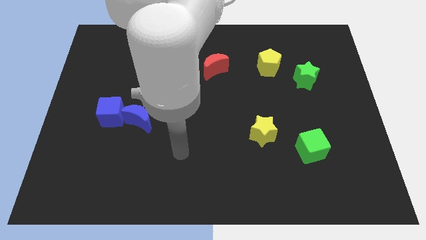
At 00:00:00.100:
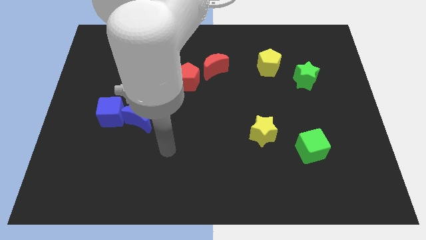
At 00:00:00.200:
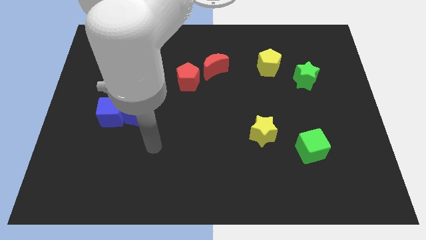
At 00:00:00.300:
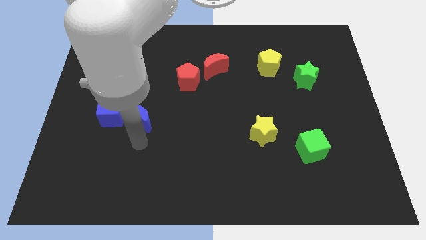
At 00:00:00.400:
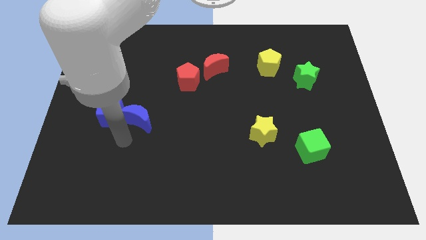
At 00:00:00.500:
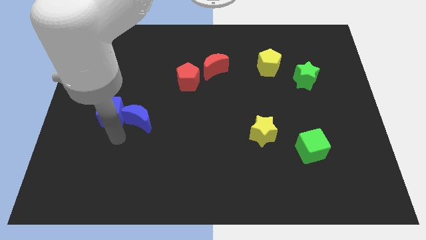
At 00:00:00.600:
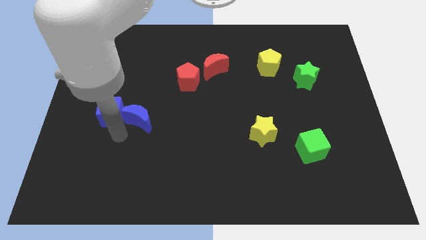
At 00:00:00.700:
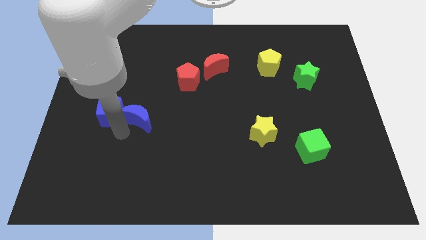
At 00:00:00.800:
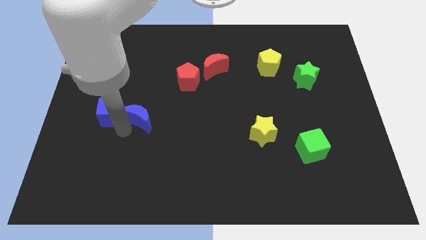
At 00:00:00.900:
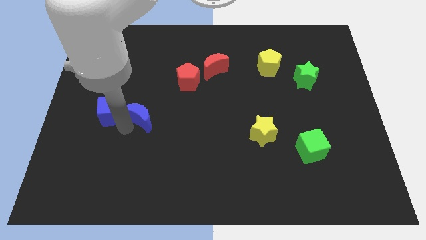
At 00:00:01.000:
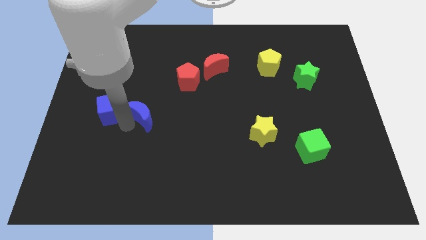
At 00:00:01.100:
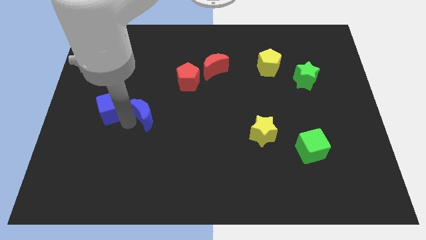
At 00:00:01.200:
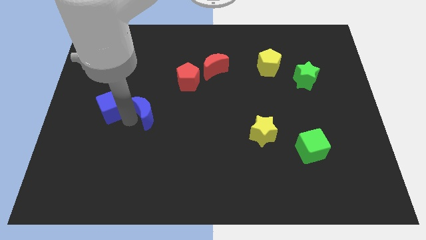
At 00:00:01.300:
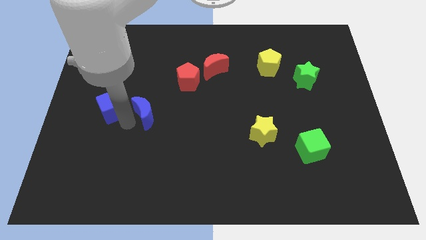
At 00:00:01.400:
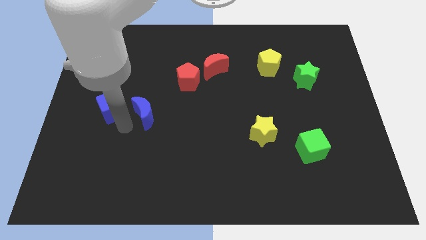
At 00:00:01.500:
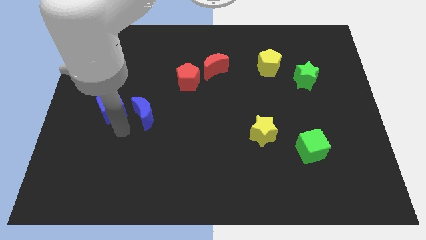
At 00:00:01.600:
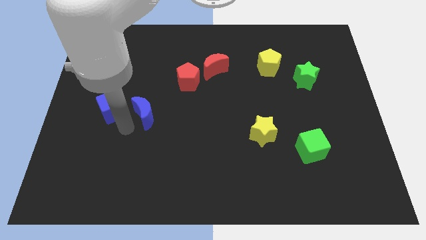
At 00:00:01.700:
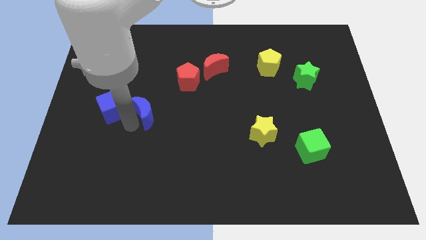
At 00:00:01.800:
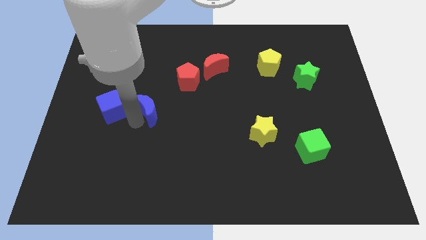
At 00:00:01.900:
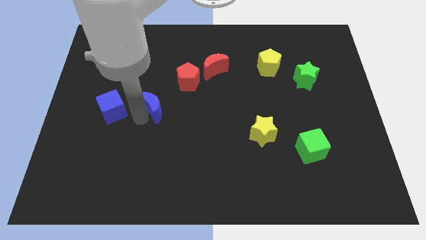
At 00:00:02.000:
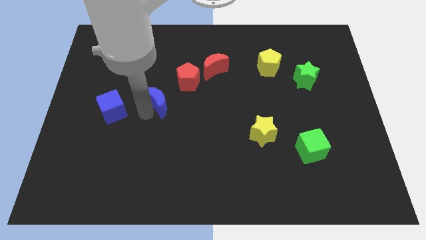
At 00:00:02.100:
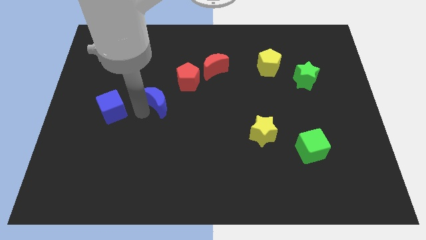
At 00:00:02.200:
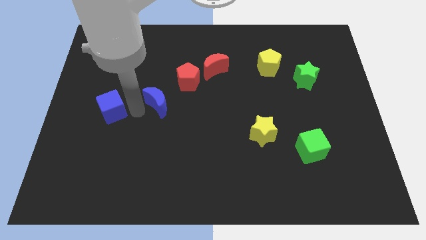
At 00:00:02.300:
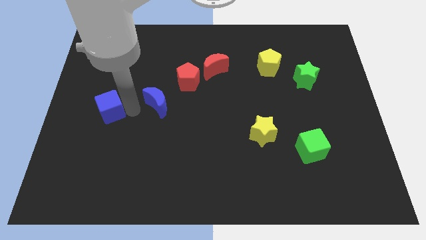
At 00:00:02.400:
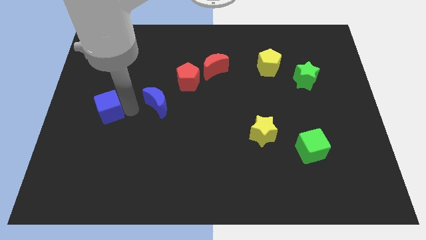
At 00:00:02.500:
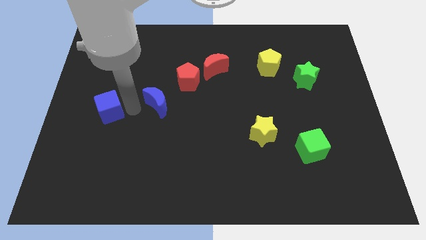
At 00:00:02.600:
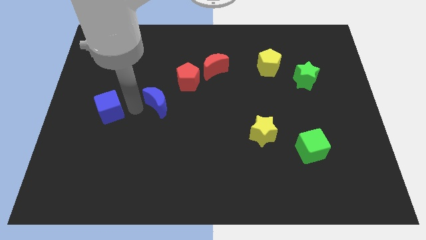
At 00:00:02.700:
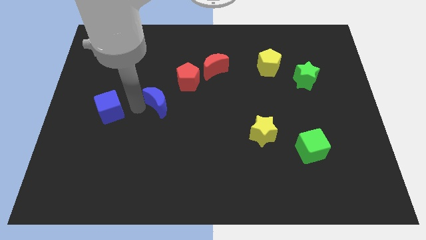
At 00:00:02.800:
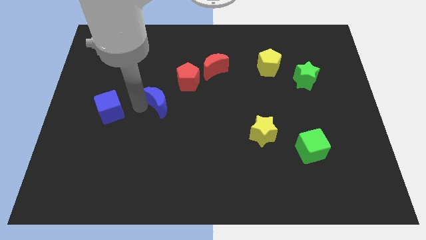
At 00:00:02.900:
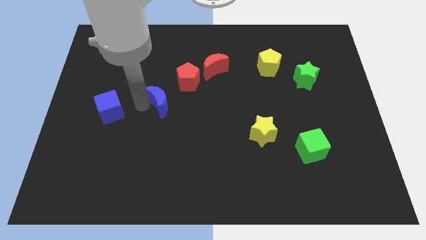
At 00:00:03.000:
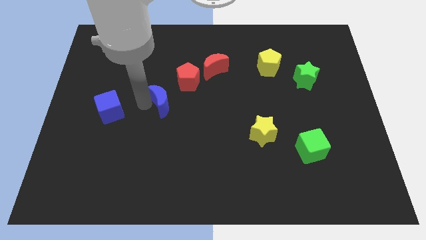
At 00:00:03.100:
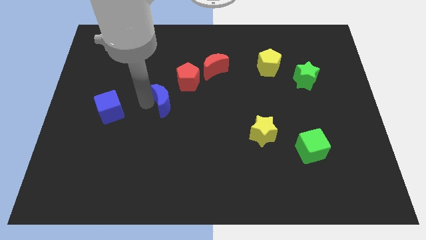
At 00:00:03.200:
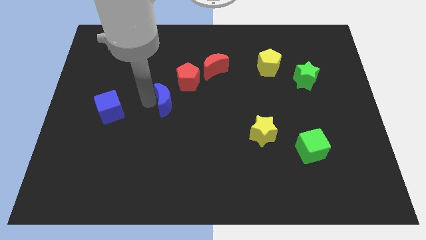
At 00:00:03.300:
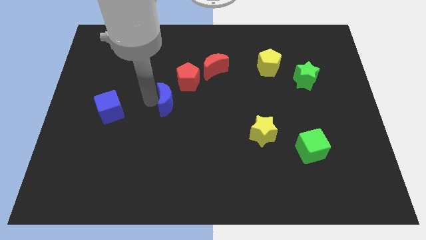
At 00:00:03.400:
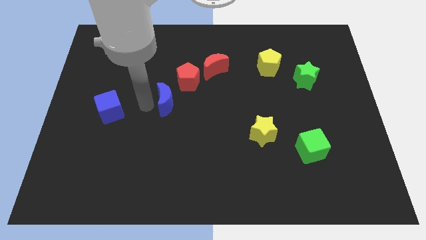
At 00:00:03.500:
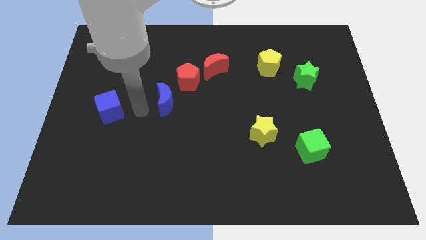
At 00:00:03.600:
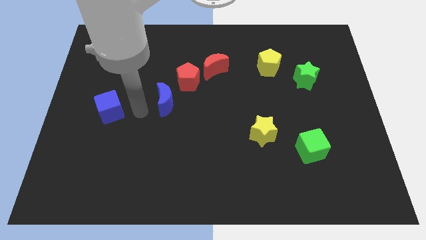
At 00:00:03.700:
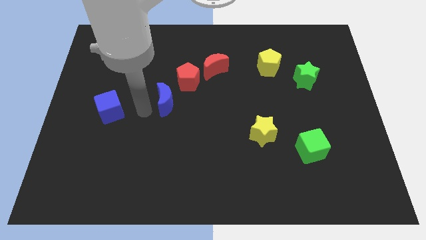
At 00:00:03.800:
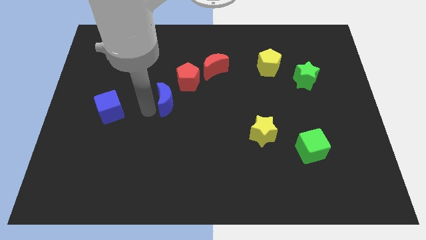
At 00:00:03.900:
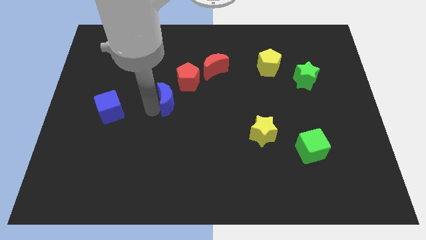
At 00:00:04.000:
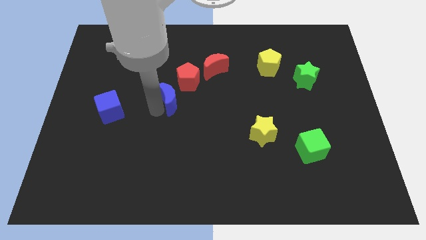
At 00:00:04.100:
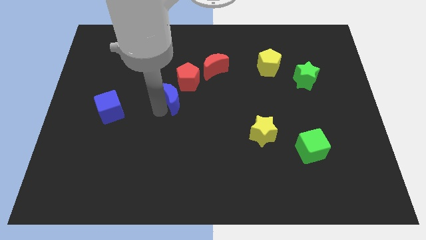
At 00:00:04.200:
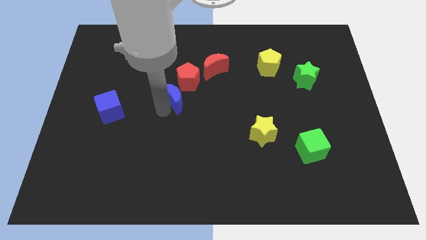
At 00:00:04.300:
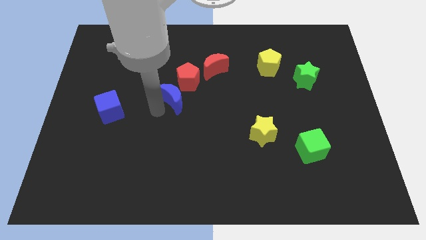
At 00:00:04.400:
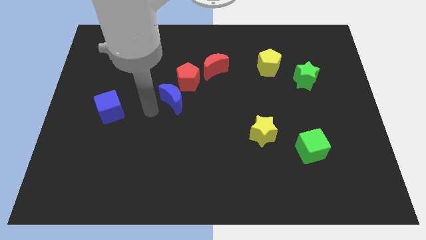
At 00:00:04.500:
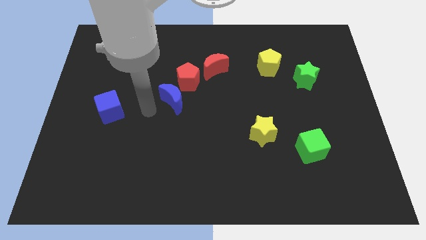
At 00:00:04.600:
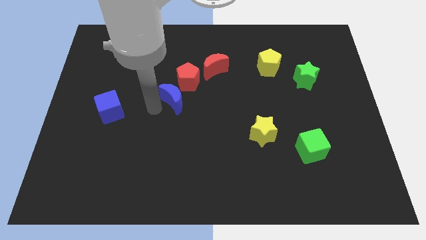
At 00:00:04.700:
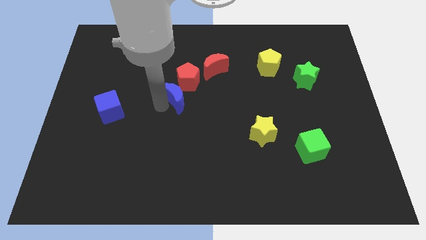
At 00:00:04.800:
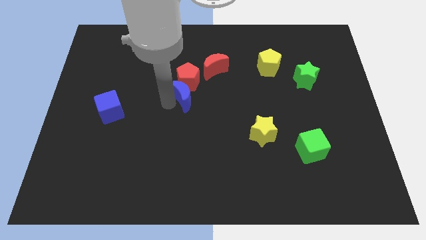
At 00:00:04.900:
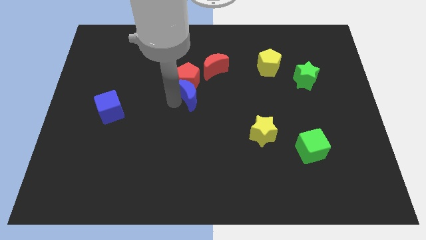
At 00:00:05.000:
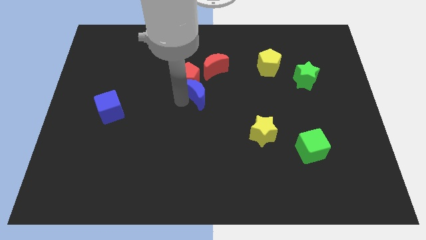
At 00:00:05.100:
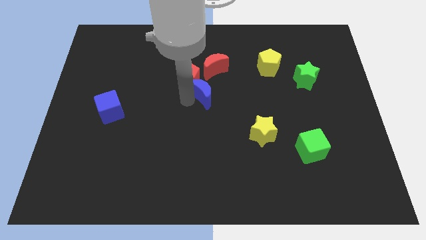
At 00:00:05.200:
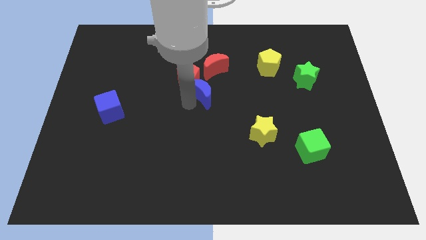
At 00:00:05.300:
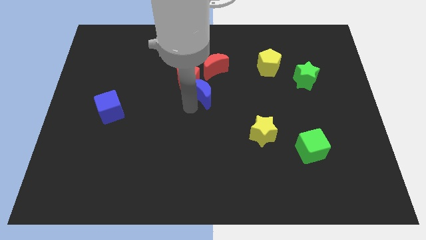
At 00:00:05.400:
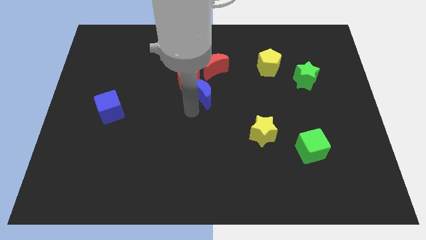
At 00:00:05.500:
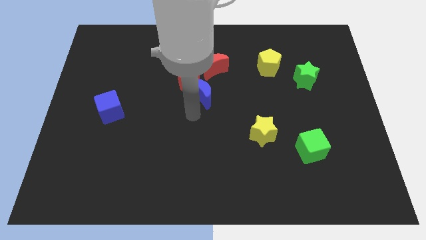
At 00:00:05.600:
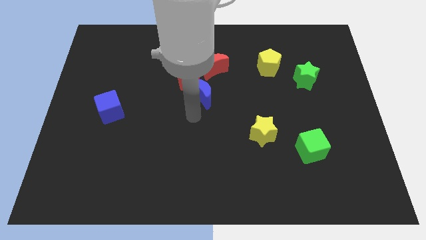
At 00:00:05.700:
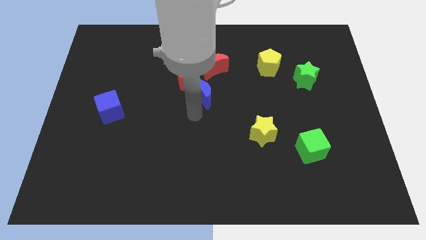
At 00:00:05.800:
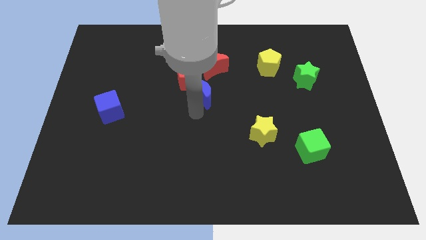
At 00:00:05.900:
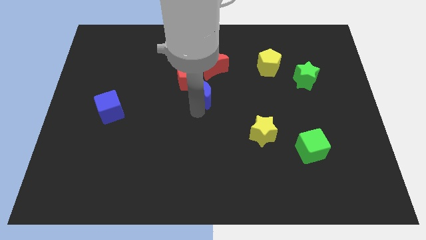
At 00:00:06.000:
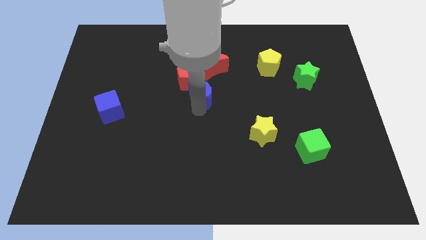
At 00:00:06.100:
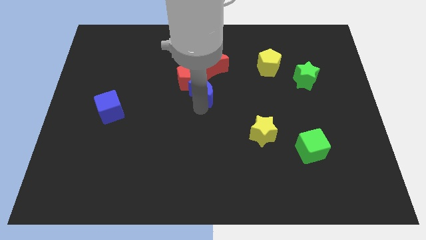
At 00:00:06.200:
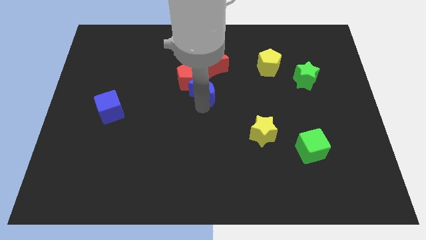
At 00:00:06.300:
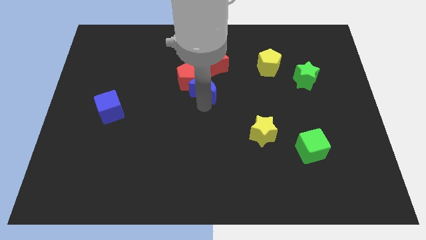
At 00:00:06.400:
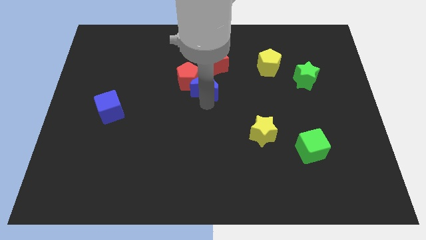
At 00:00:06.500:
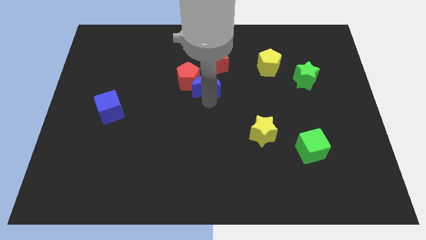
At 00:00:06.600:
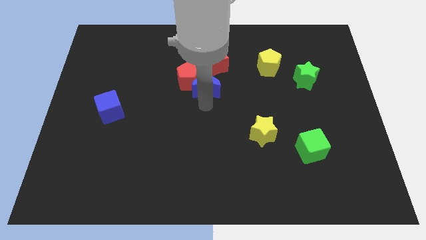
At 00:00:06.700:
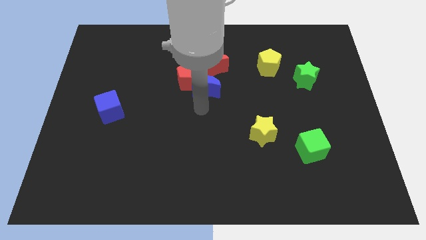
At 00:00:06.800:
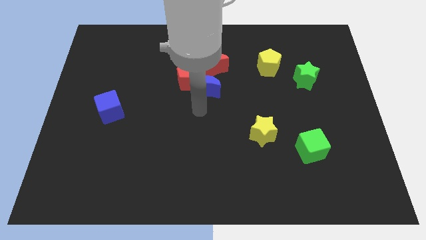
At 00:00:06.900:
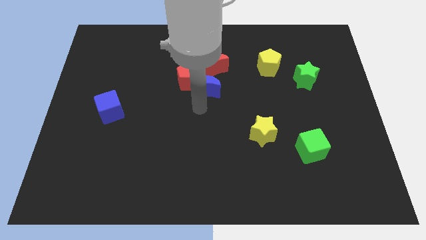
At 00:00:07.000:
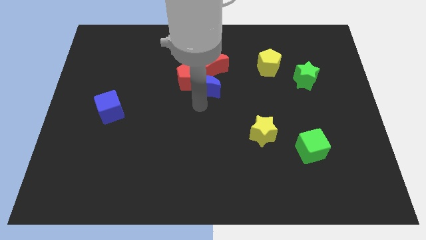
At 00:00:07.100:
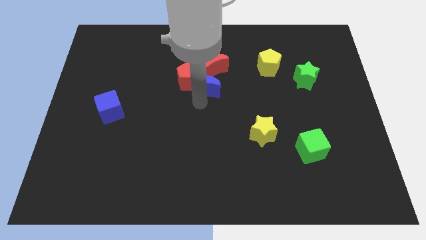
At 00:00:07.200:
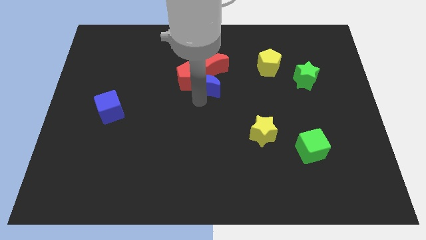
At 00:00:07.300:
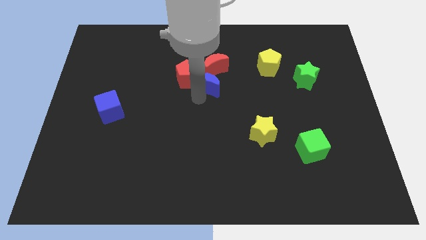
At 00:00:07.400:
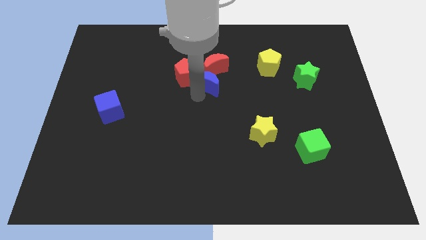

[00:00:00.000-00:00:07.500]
move the blue moon close to the red moon
